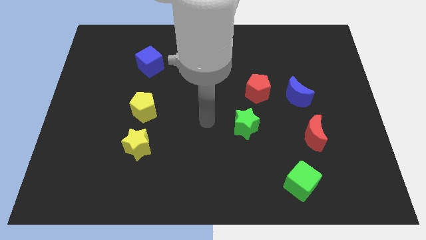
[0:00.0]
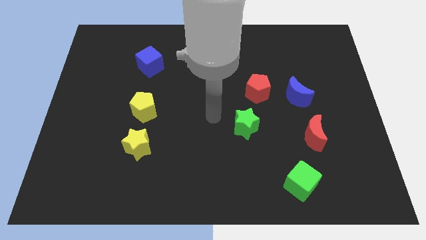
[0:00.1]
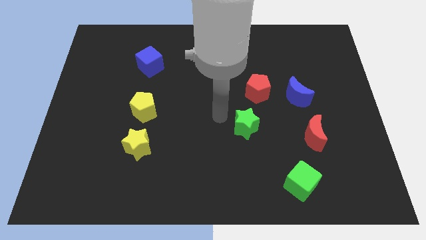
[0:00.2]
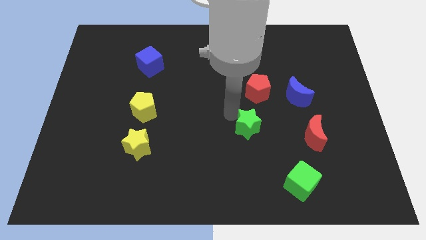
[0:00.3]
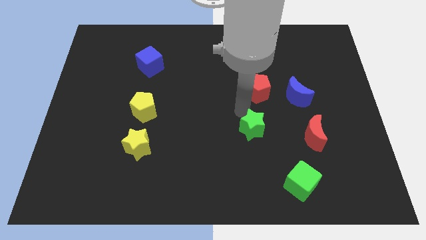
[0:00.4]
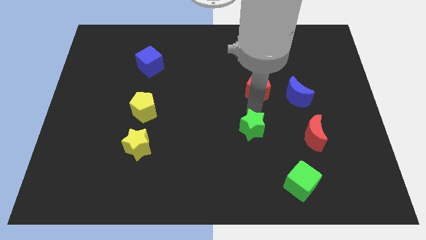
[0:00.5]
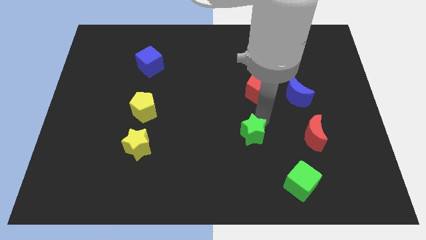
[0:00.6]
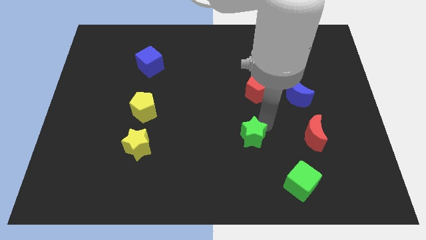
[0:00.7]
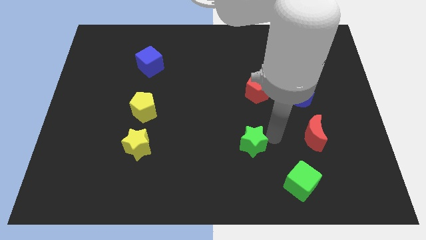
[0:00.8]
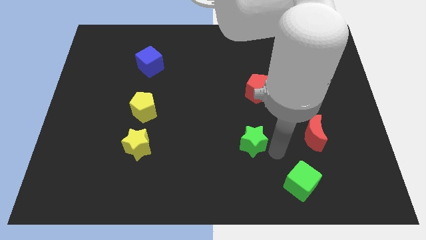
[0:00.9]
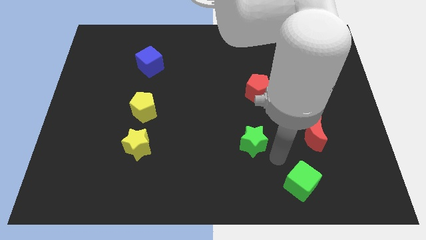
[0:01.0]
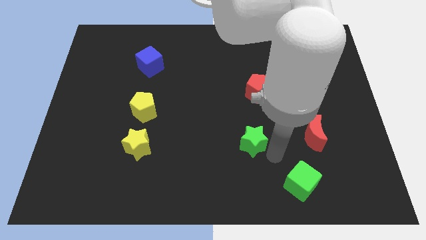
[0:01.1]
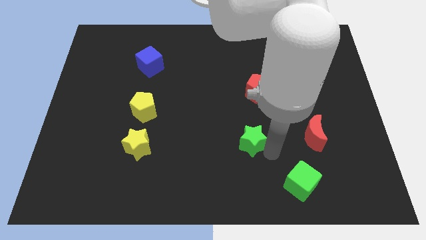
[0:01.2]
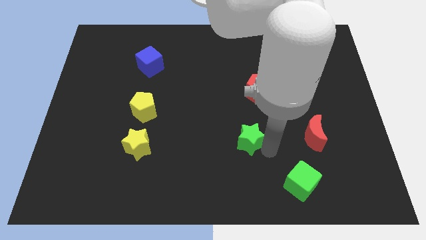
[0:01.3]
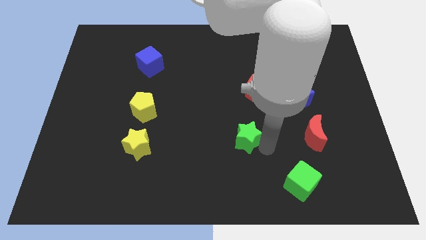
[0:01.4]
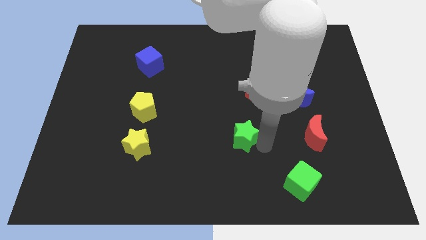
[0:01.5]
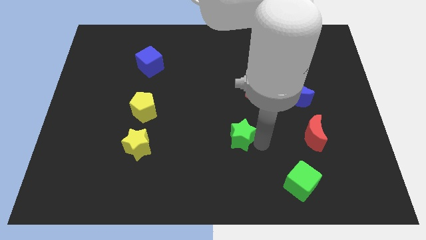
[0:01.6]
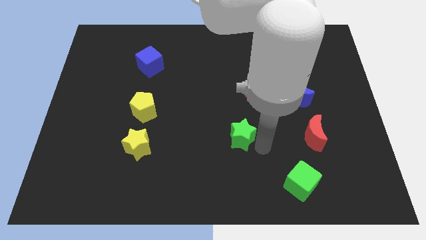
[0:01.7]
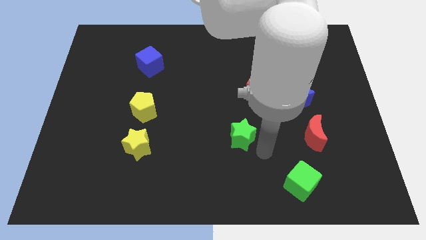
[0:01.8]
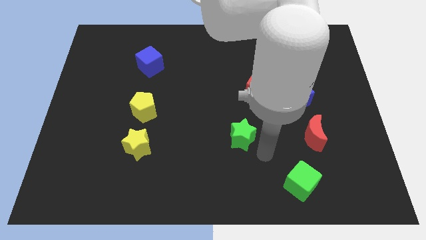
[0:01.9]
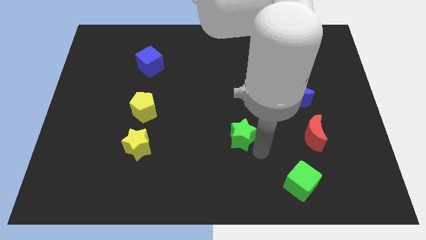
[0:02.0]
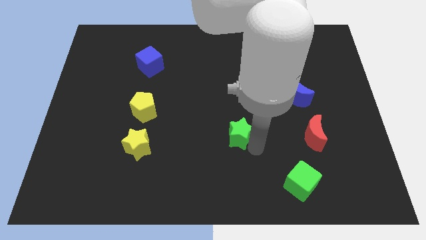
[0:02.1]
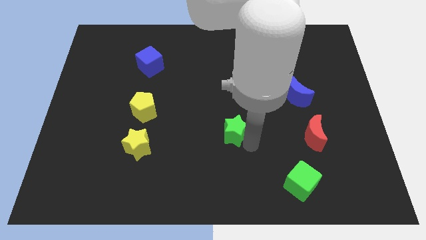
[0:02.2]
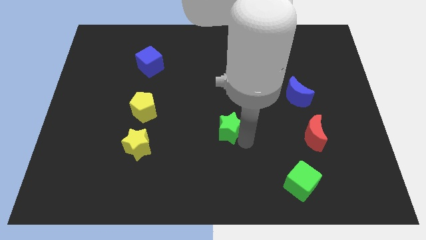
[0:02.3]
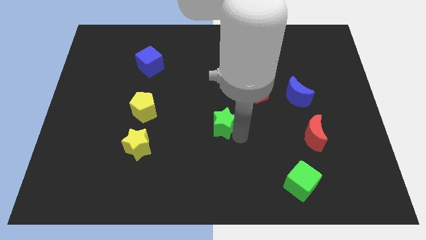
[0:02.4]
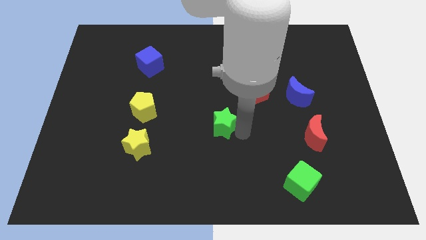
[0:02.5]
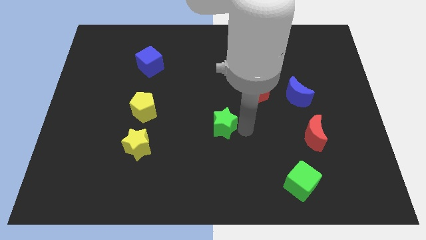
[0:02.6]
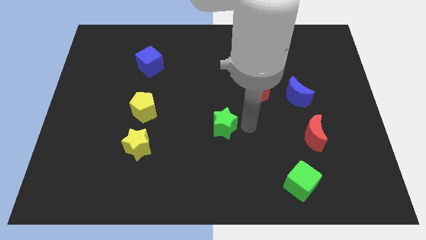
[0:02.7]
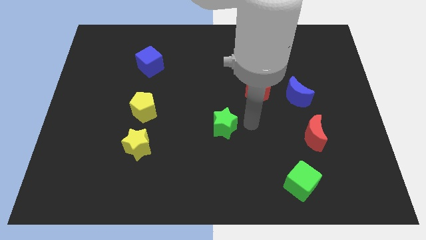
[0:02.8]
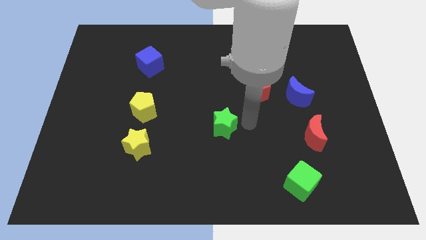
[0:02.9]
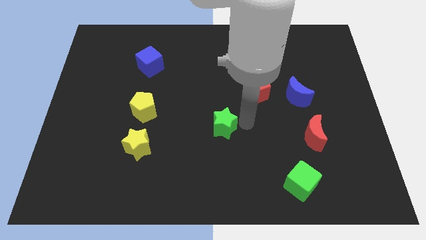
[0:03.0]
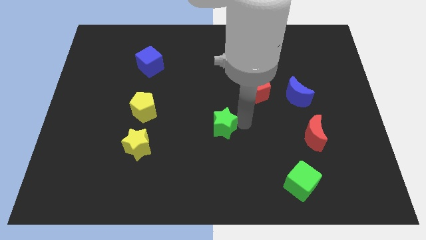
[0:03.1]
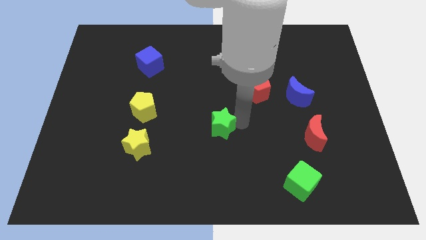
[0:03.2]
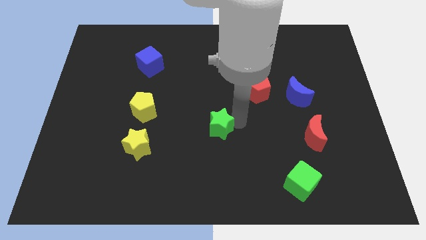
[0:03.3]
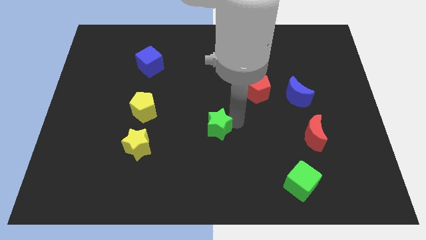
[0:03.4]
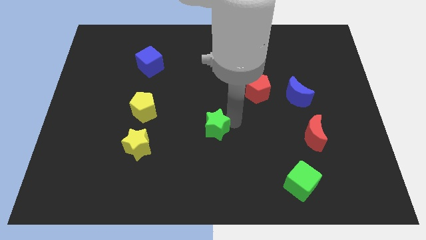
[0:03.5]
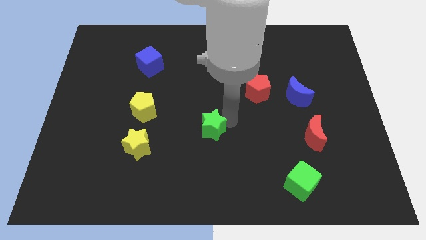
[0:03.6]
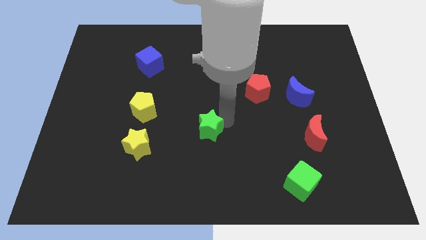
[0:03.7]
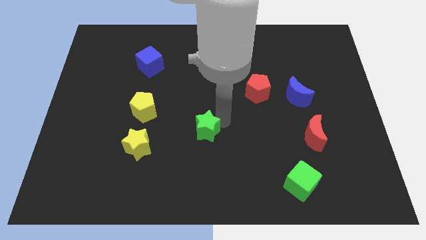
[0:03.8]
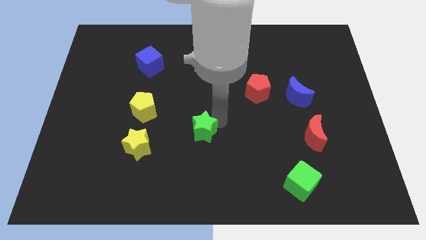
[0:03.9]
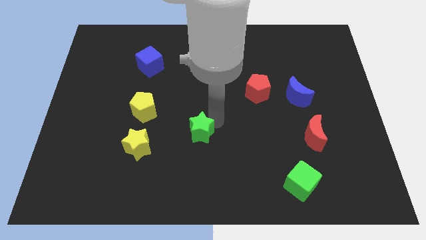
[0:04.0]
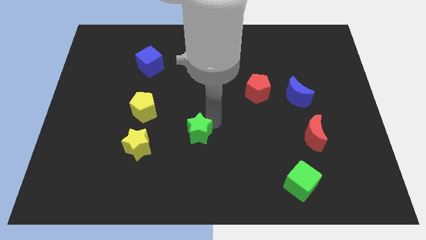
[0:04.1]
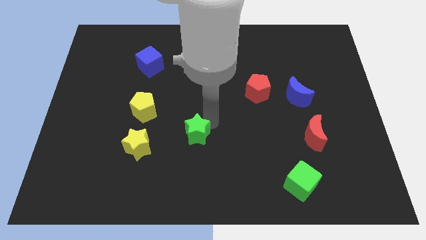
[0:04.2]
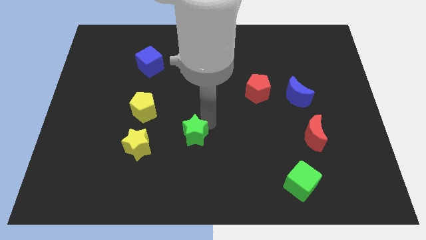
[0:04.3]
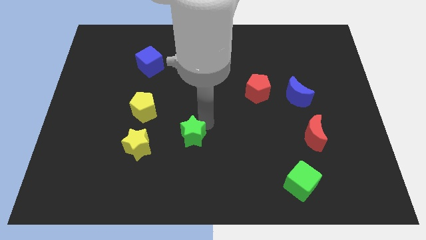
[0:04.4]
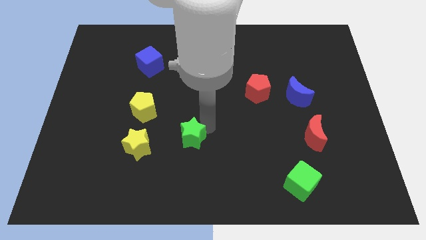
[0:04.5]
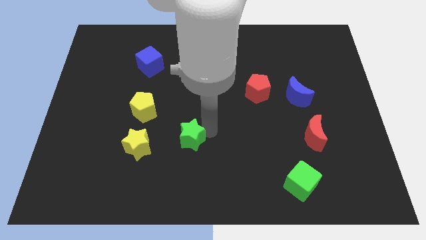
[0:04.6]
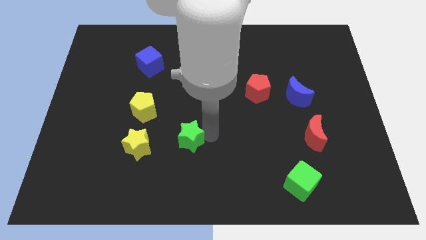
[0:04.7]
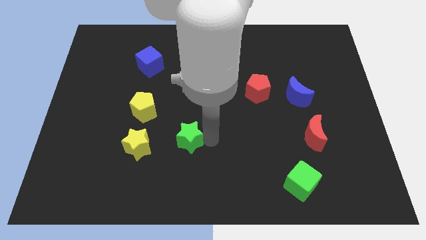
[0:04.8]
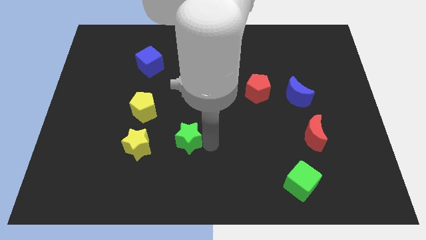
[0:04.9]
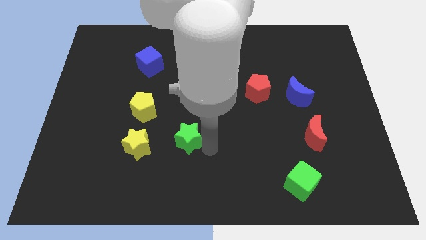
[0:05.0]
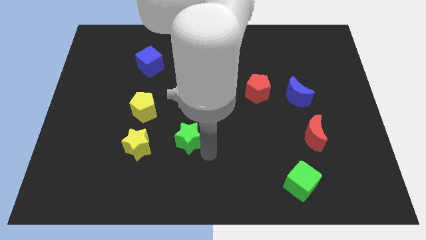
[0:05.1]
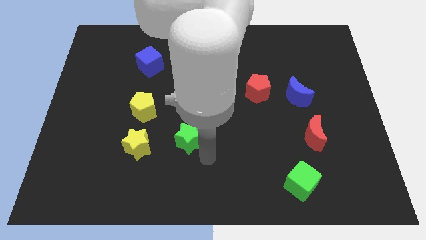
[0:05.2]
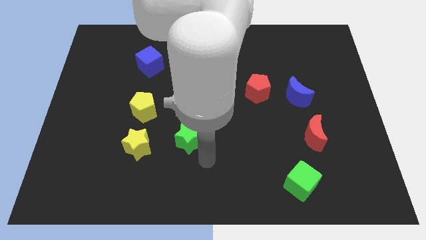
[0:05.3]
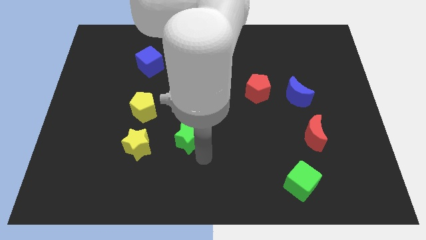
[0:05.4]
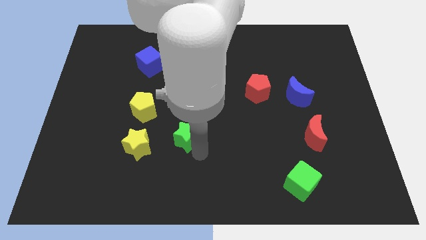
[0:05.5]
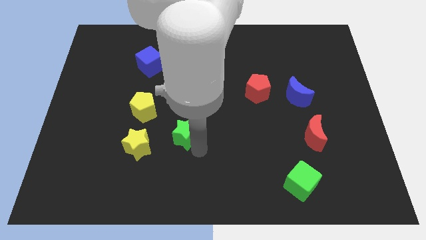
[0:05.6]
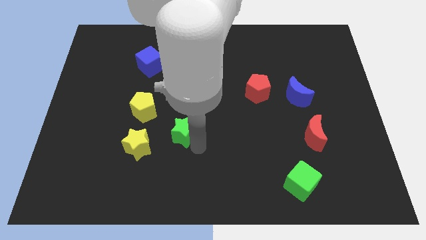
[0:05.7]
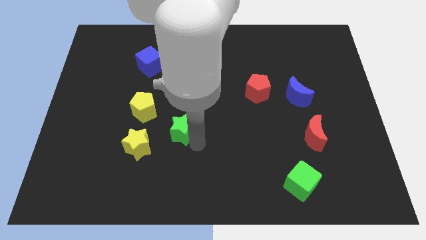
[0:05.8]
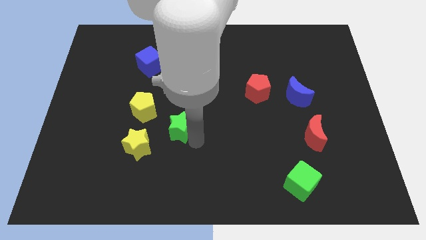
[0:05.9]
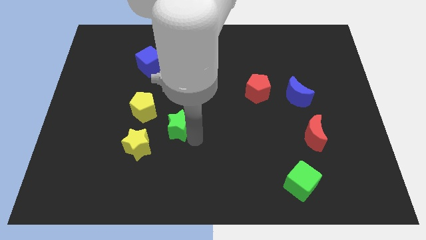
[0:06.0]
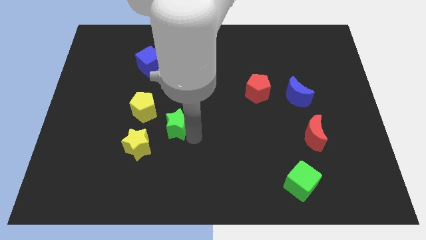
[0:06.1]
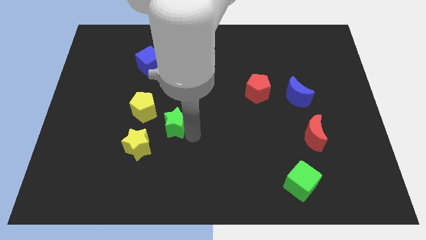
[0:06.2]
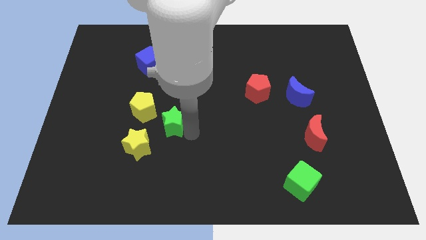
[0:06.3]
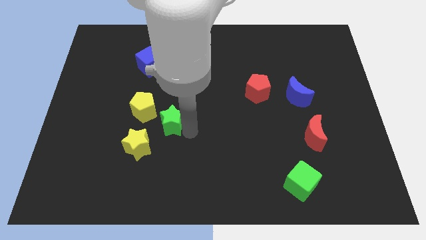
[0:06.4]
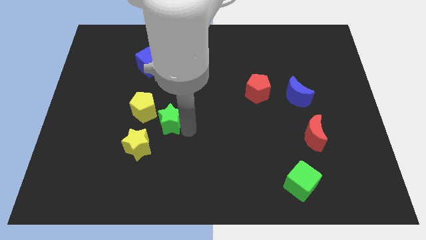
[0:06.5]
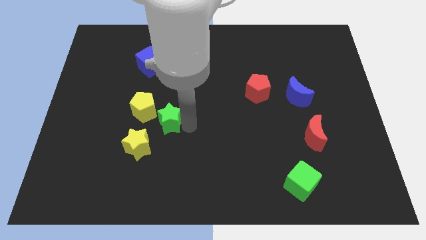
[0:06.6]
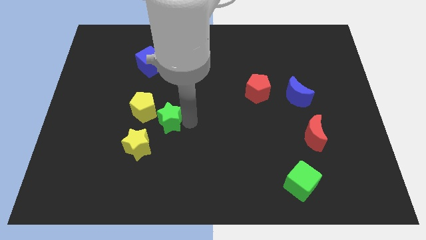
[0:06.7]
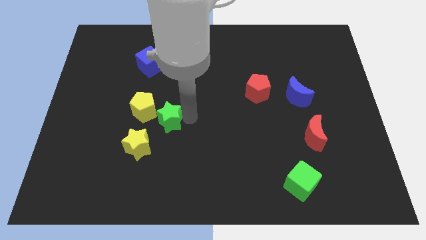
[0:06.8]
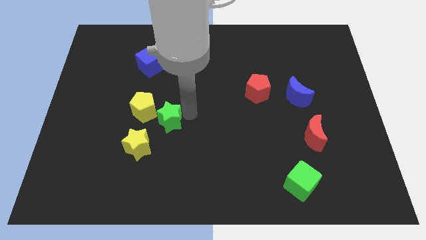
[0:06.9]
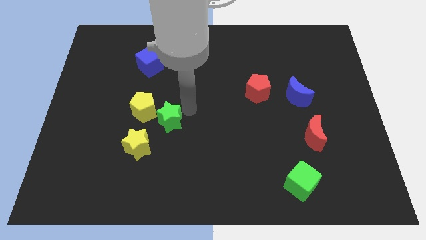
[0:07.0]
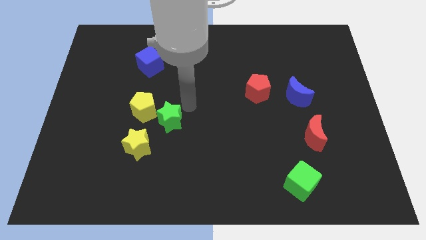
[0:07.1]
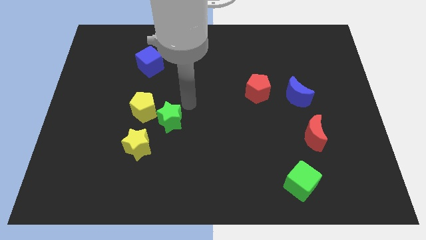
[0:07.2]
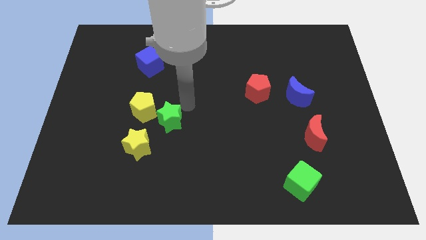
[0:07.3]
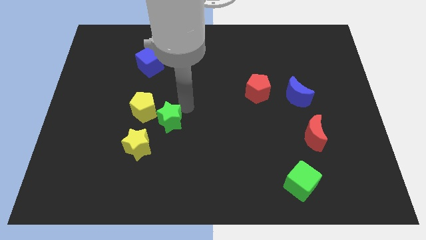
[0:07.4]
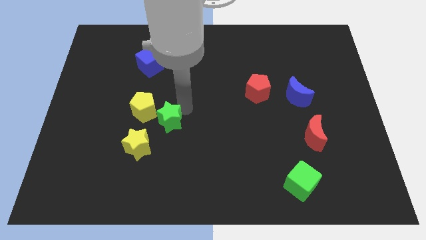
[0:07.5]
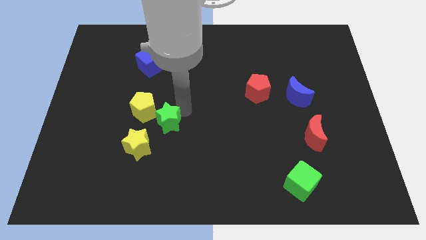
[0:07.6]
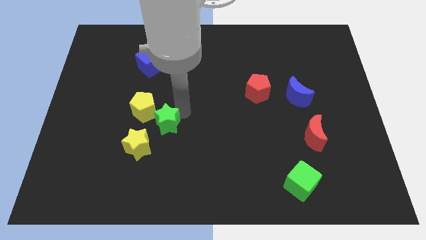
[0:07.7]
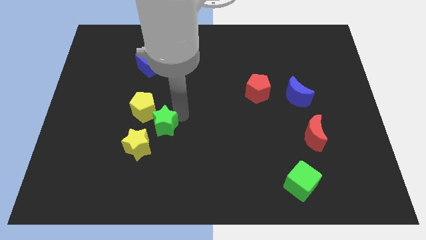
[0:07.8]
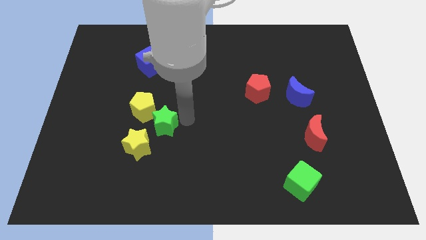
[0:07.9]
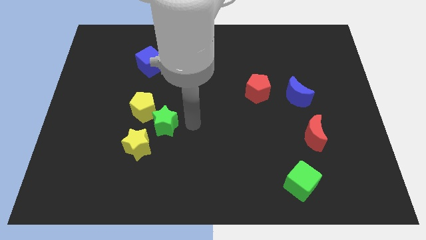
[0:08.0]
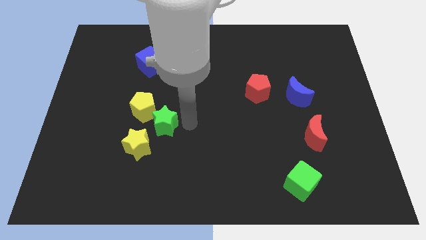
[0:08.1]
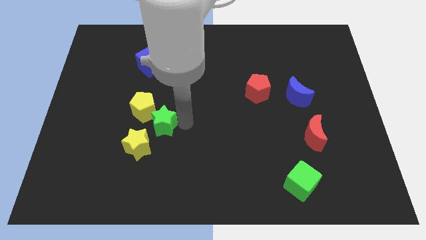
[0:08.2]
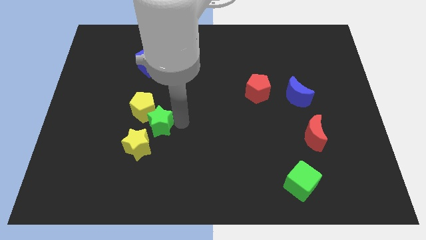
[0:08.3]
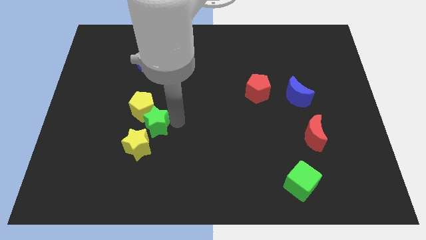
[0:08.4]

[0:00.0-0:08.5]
slide the green star to the left
